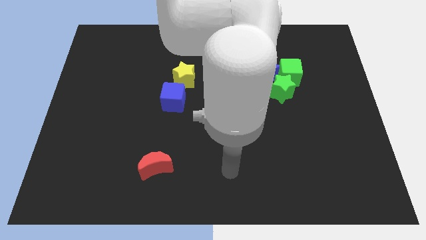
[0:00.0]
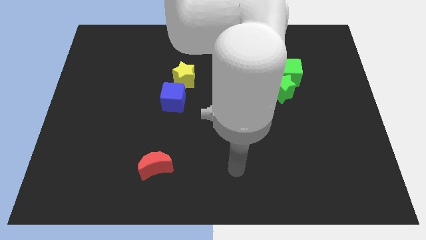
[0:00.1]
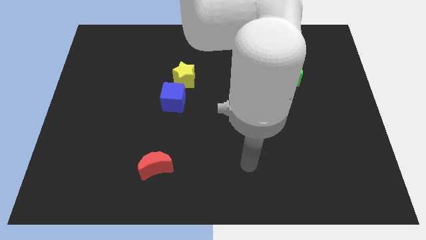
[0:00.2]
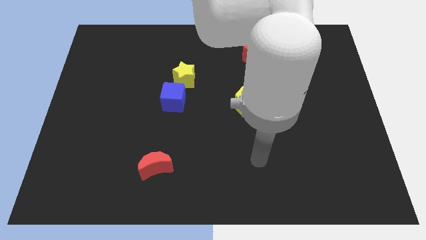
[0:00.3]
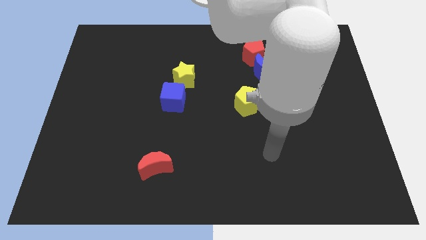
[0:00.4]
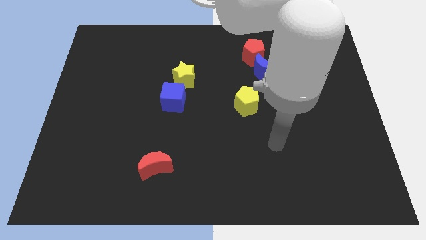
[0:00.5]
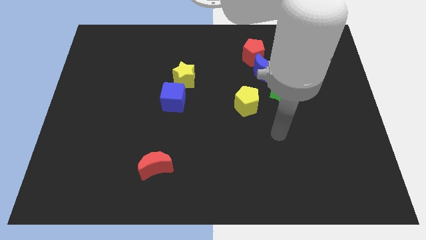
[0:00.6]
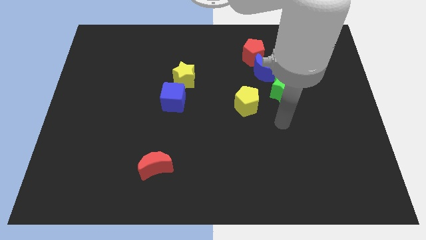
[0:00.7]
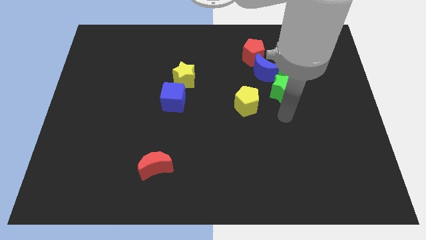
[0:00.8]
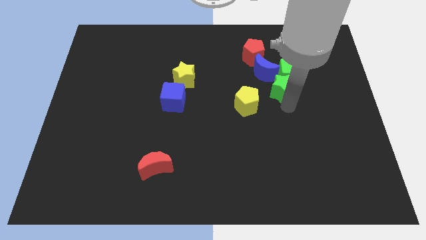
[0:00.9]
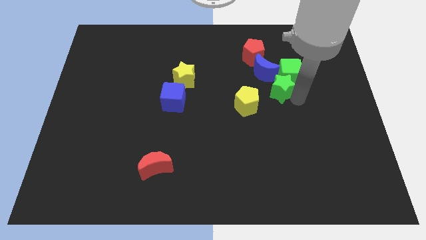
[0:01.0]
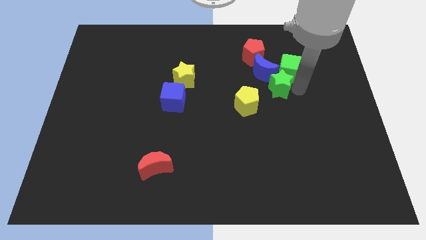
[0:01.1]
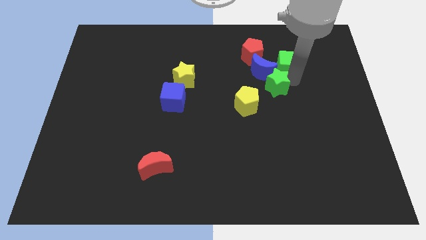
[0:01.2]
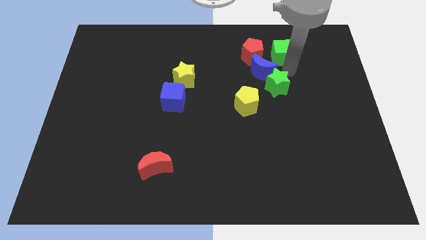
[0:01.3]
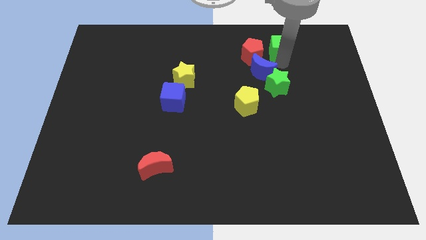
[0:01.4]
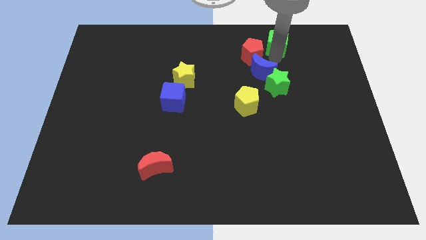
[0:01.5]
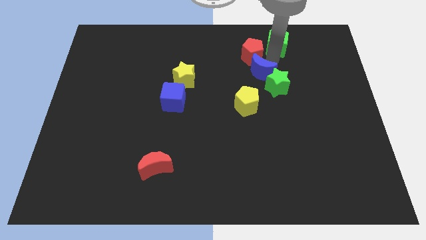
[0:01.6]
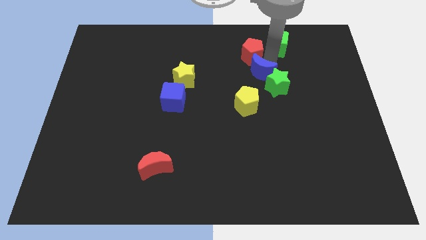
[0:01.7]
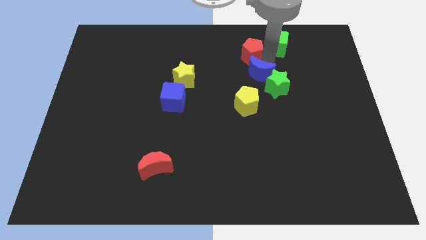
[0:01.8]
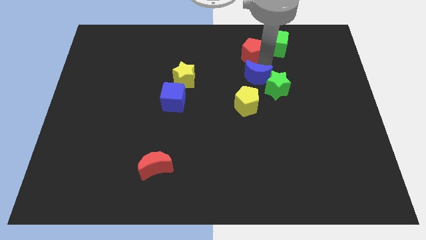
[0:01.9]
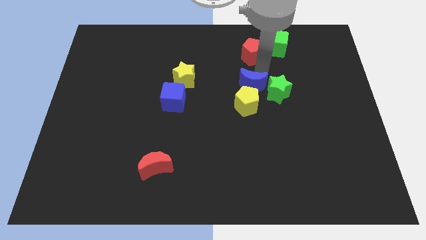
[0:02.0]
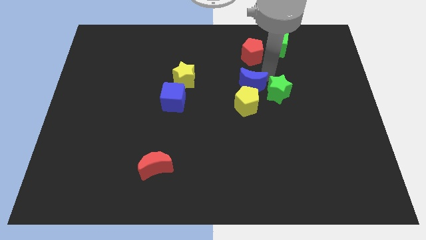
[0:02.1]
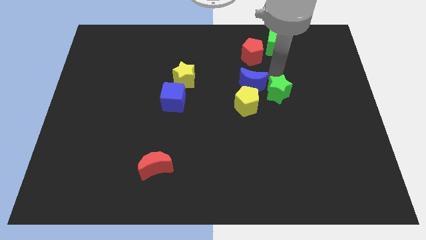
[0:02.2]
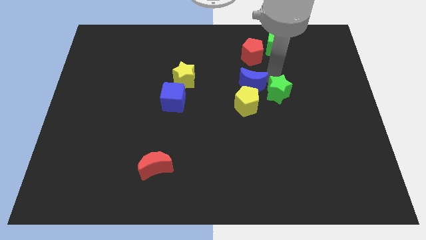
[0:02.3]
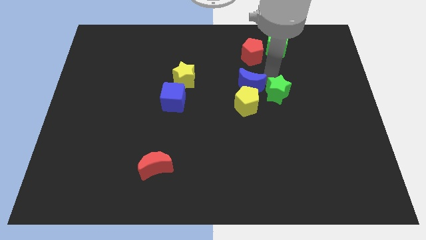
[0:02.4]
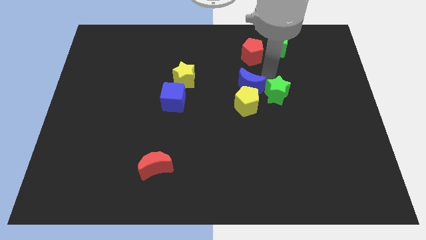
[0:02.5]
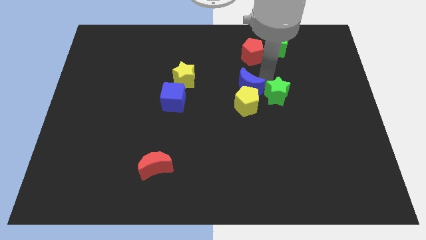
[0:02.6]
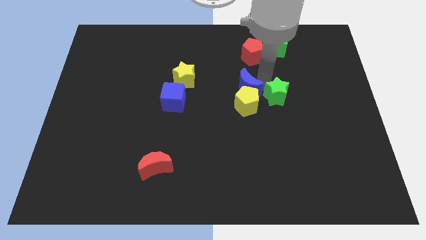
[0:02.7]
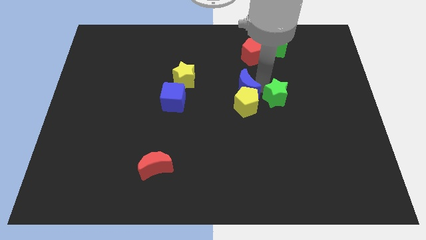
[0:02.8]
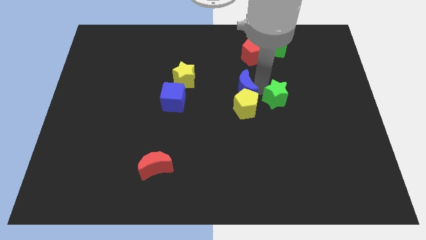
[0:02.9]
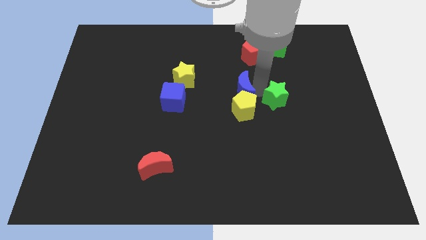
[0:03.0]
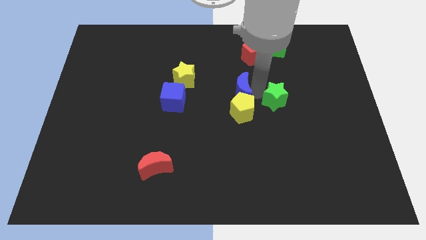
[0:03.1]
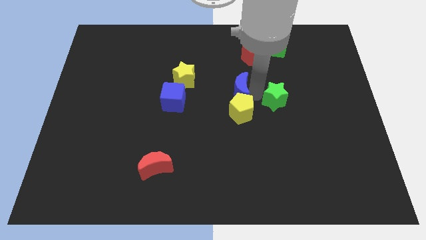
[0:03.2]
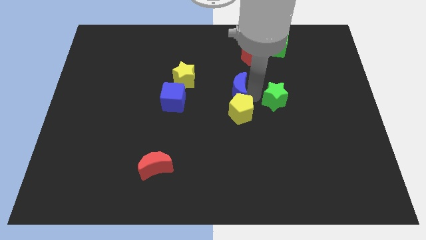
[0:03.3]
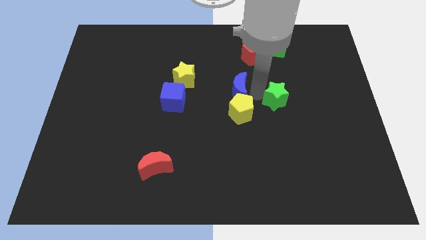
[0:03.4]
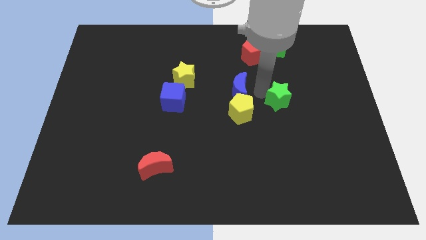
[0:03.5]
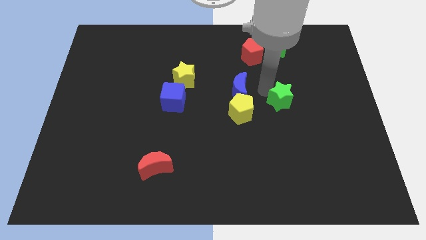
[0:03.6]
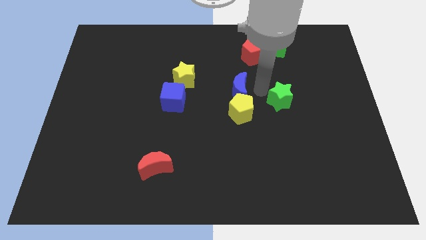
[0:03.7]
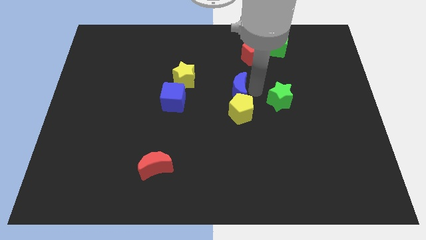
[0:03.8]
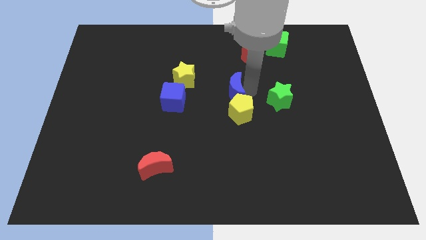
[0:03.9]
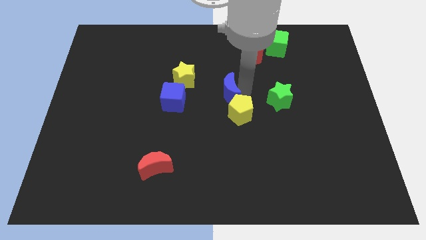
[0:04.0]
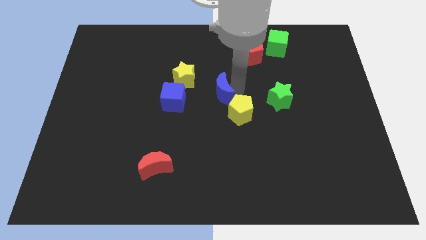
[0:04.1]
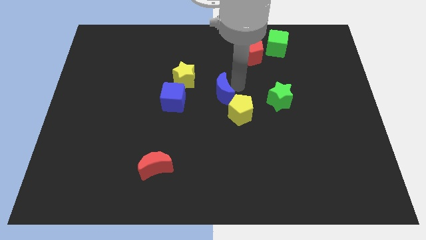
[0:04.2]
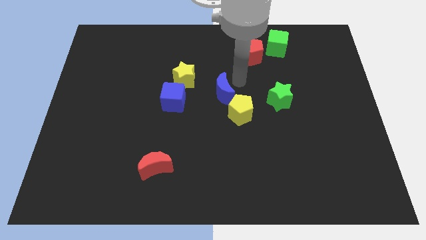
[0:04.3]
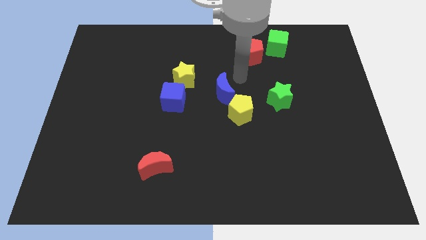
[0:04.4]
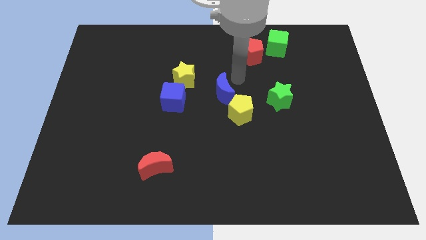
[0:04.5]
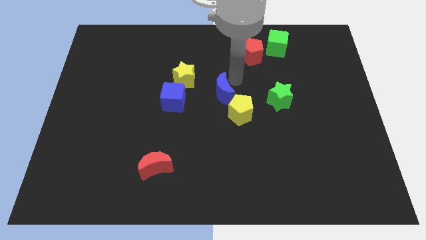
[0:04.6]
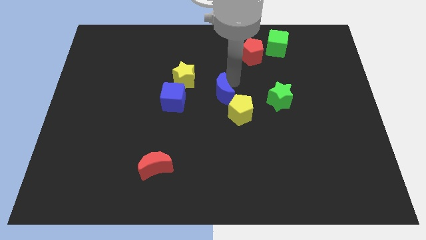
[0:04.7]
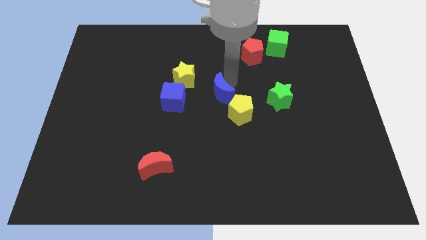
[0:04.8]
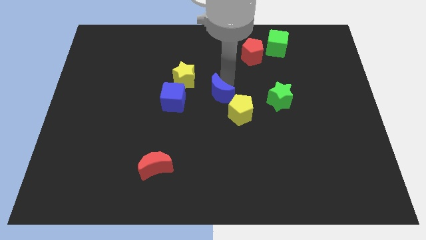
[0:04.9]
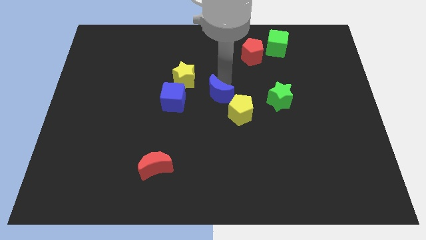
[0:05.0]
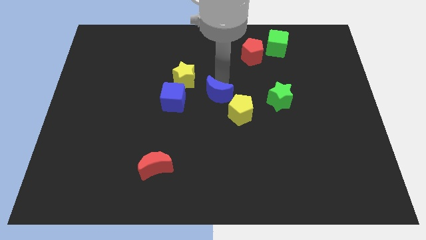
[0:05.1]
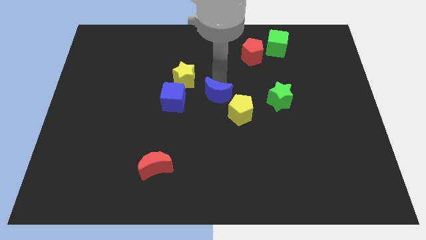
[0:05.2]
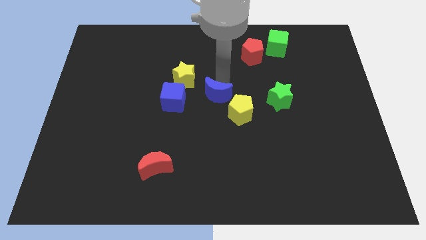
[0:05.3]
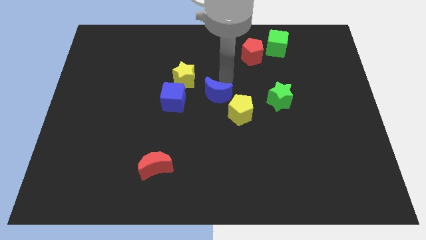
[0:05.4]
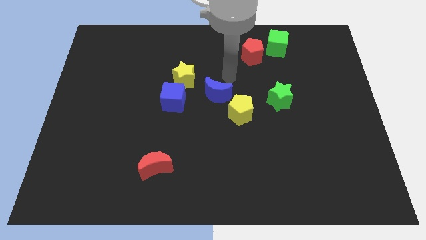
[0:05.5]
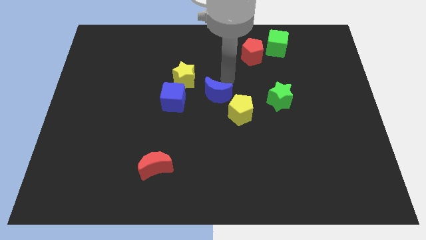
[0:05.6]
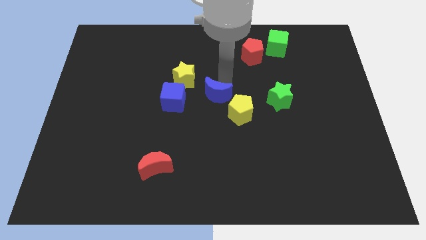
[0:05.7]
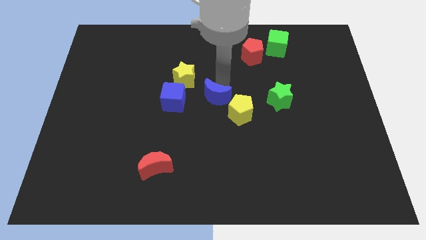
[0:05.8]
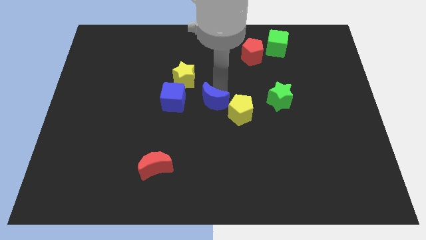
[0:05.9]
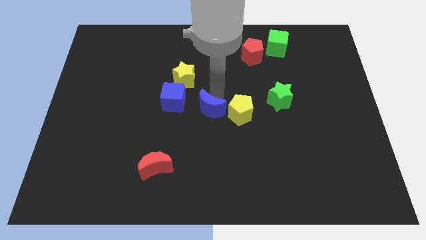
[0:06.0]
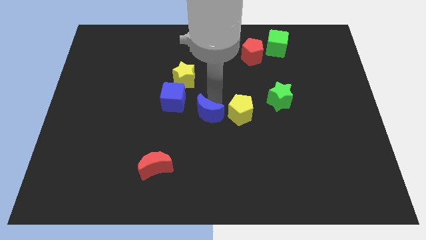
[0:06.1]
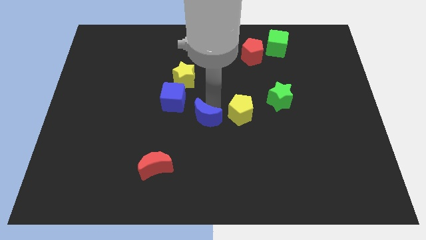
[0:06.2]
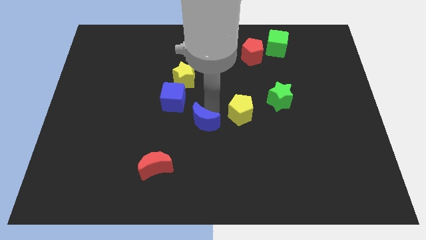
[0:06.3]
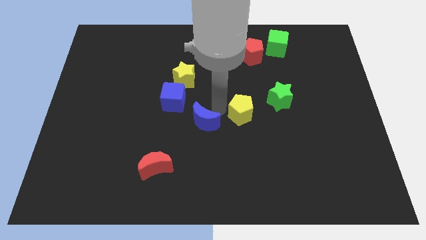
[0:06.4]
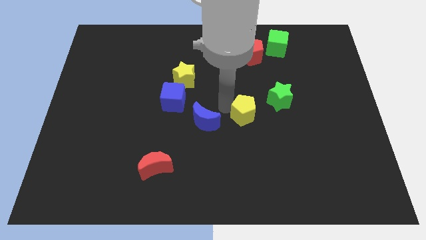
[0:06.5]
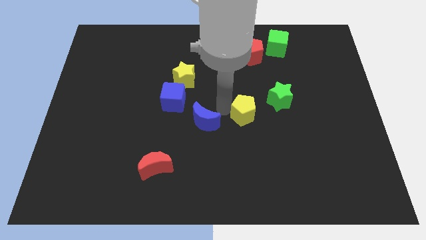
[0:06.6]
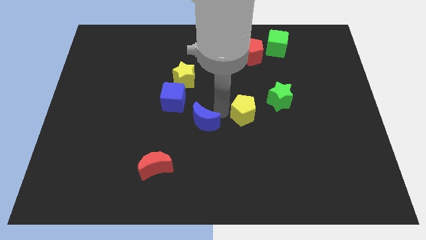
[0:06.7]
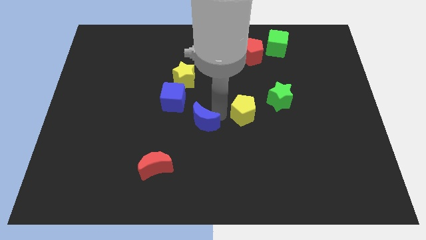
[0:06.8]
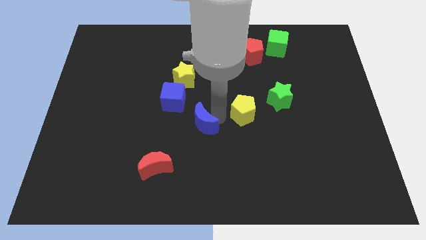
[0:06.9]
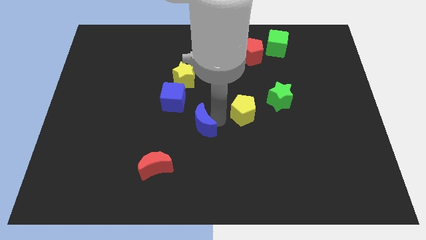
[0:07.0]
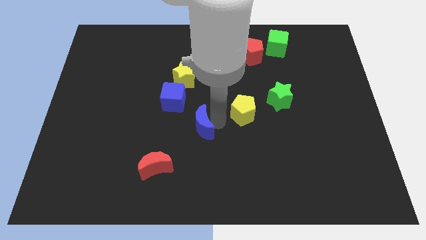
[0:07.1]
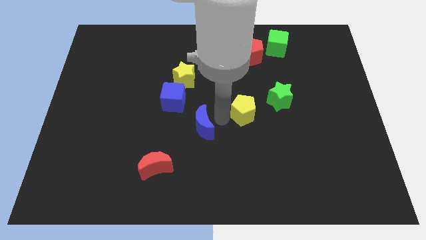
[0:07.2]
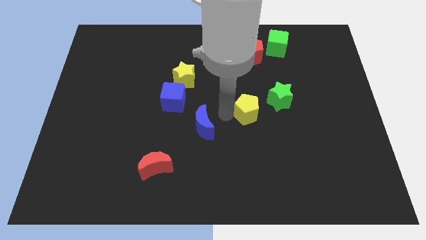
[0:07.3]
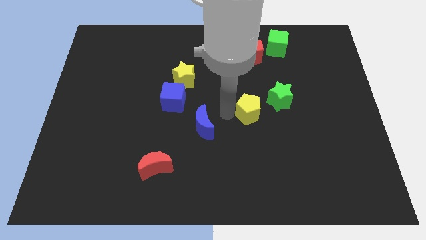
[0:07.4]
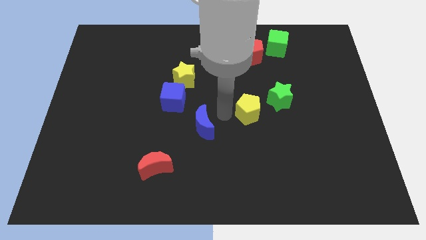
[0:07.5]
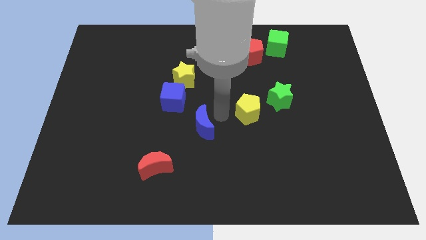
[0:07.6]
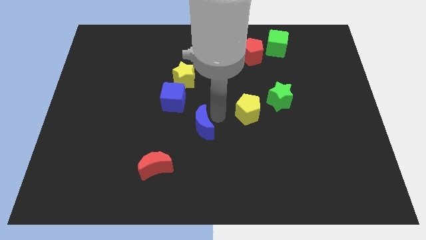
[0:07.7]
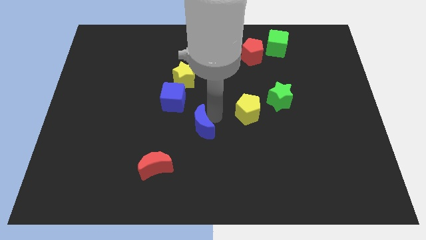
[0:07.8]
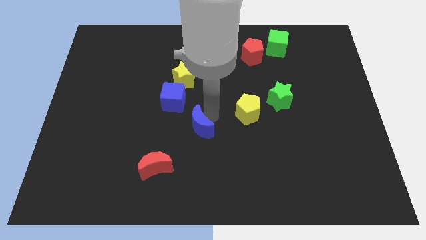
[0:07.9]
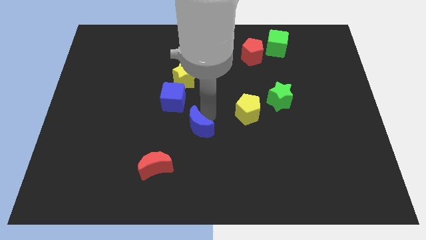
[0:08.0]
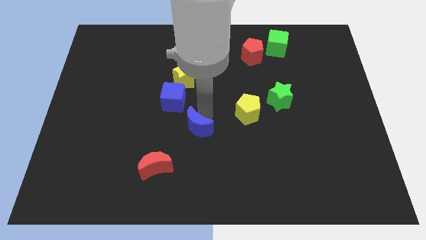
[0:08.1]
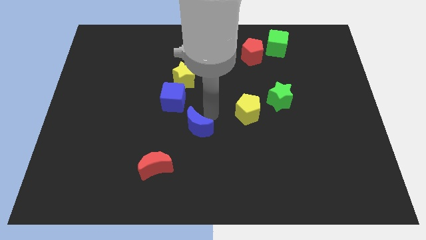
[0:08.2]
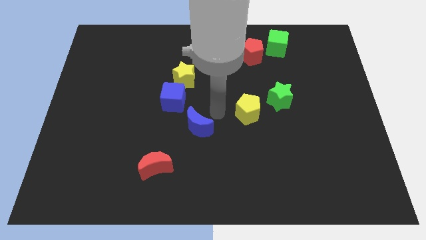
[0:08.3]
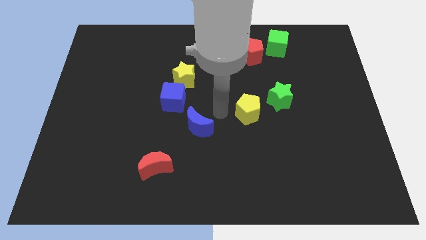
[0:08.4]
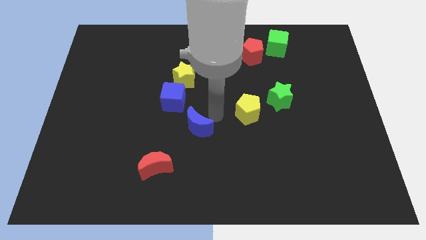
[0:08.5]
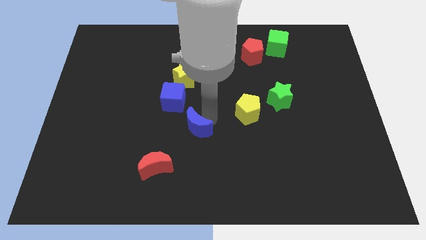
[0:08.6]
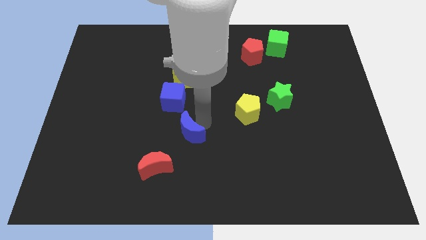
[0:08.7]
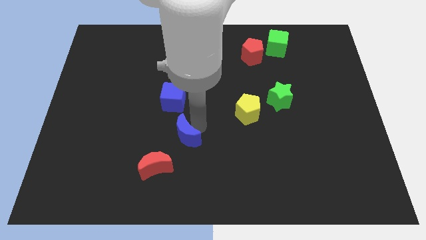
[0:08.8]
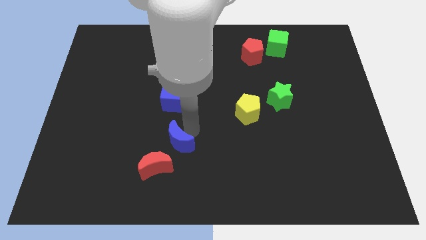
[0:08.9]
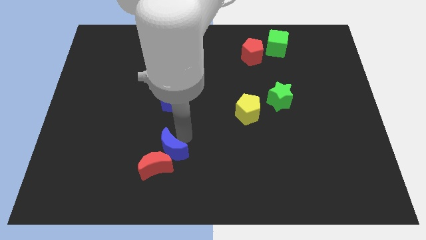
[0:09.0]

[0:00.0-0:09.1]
move the blue moon to the red moon
